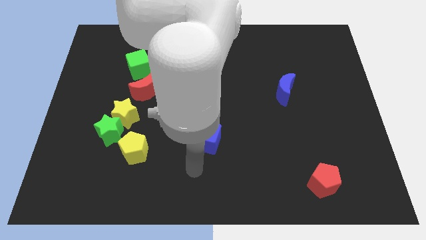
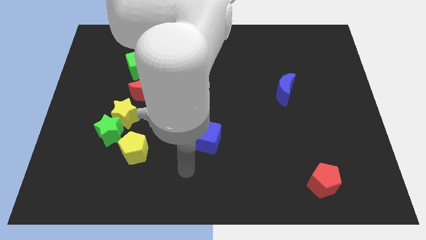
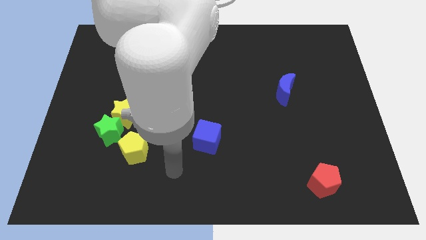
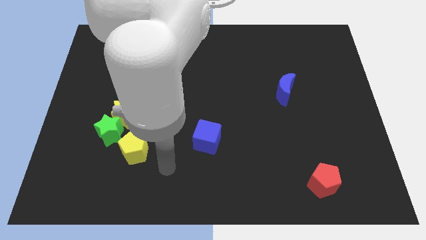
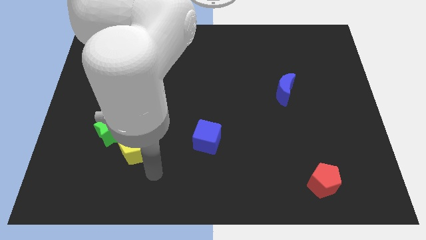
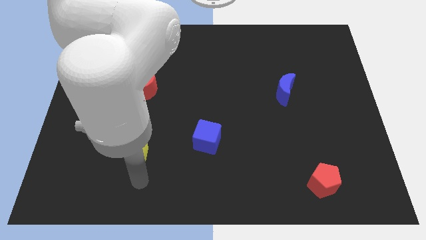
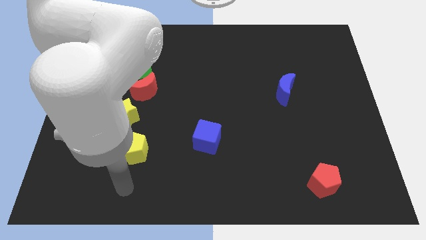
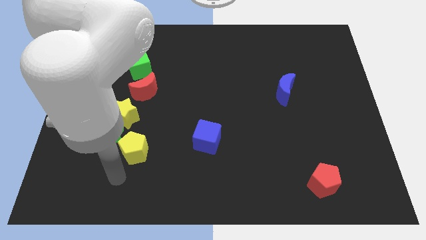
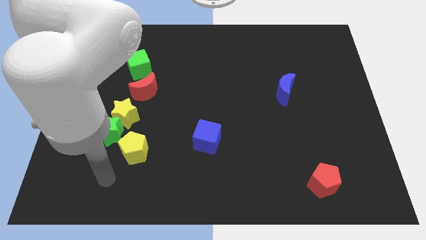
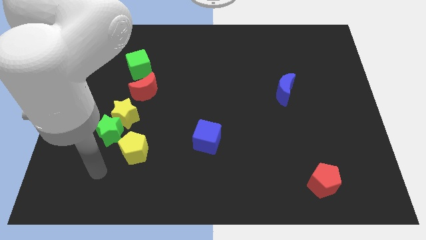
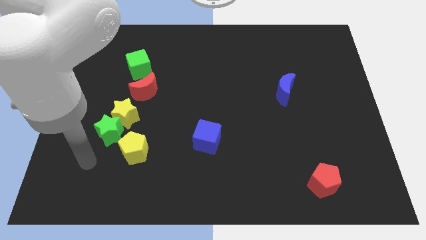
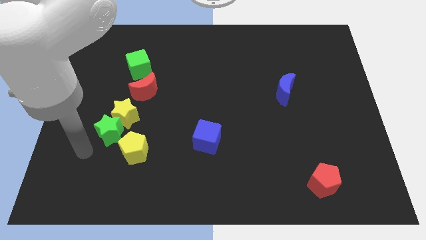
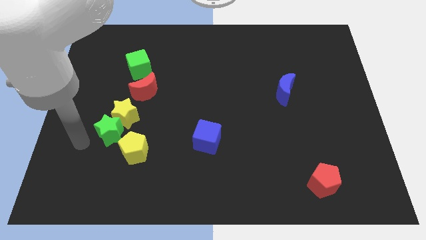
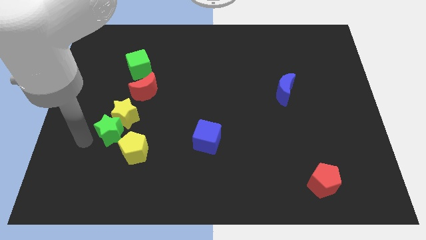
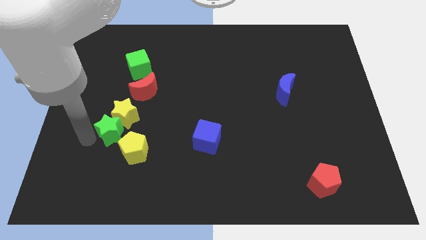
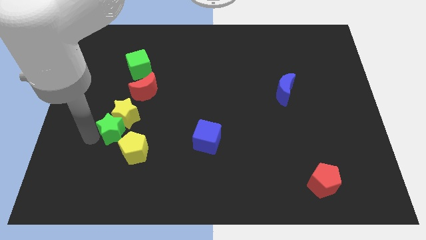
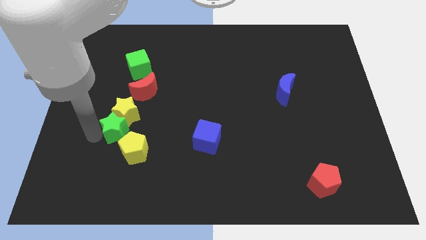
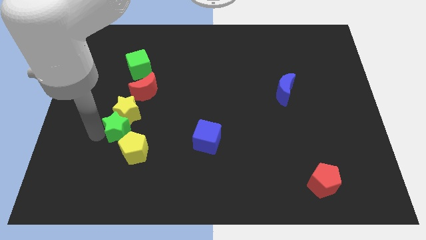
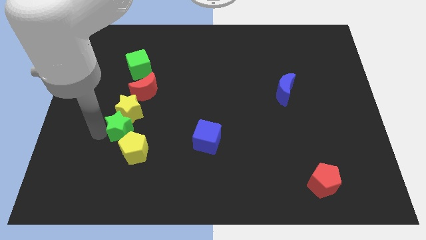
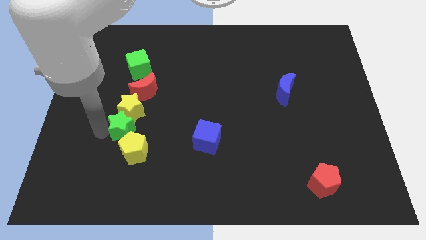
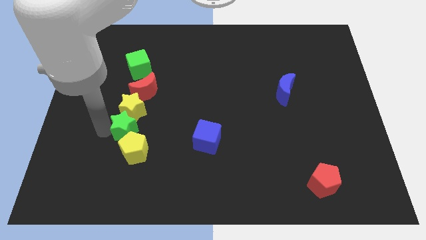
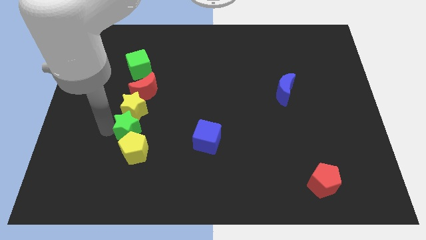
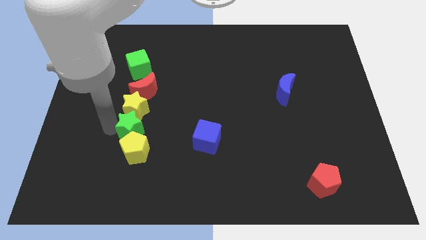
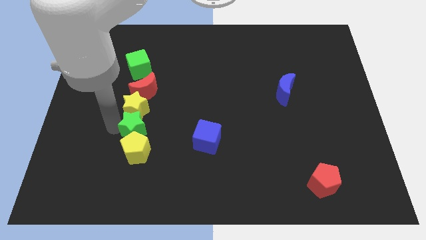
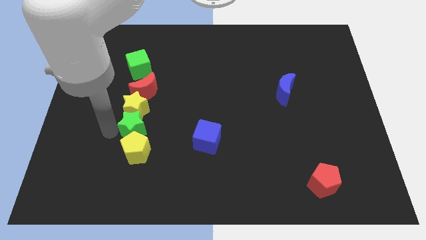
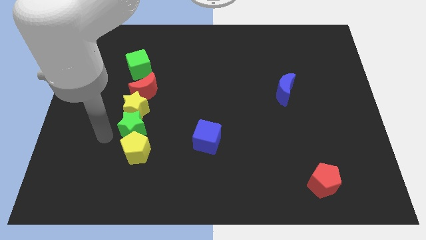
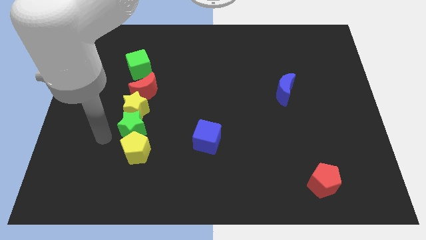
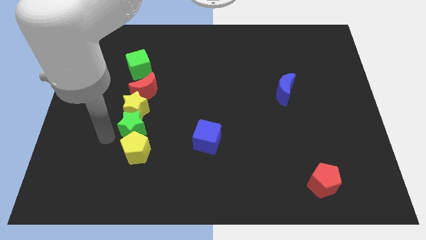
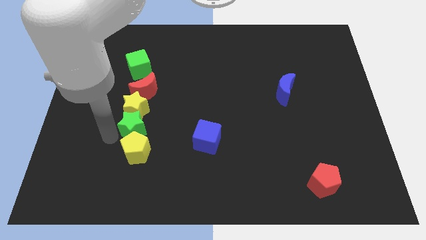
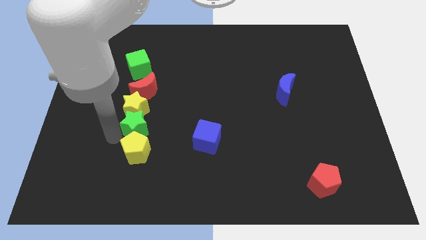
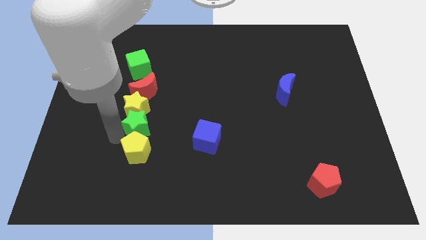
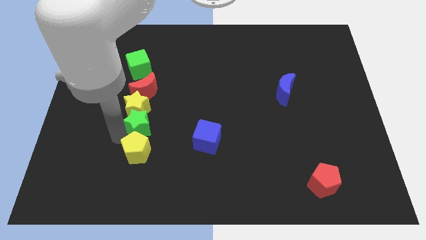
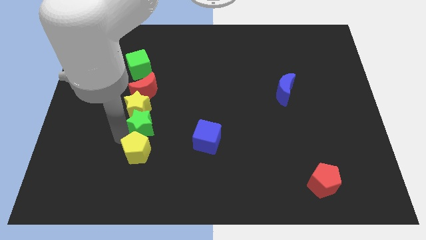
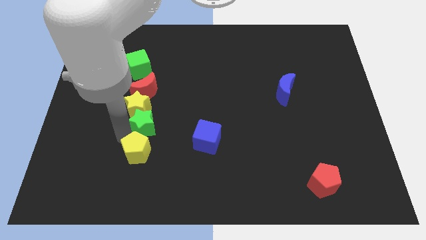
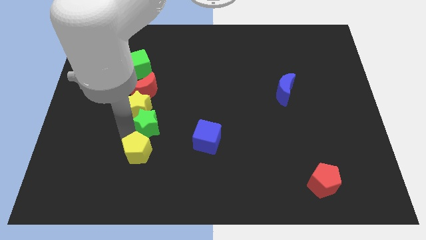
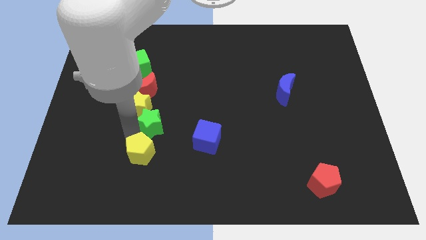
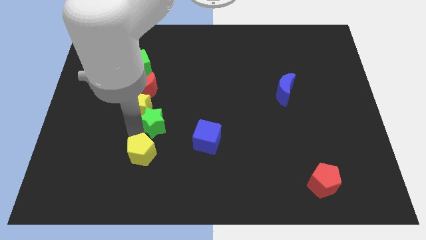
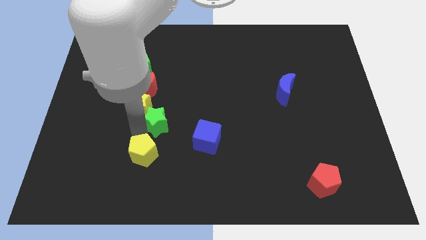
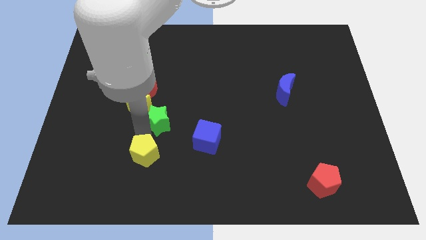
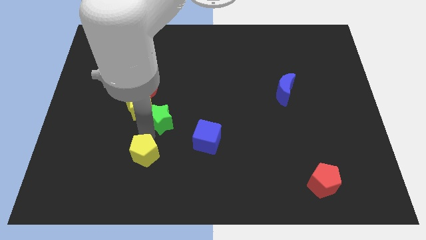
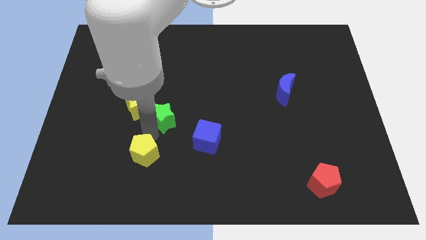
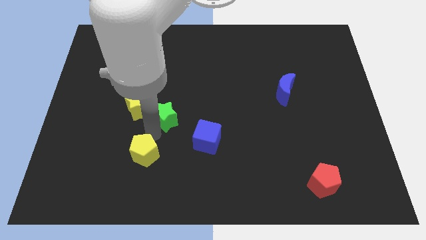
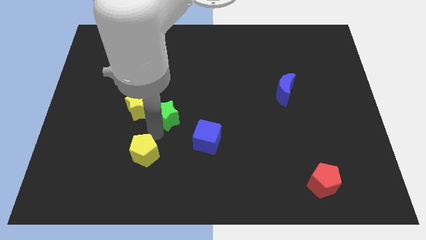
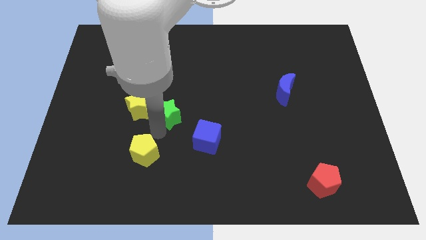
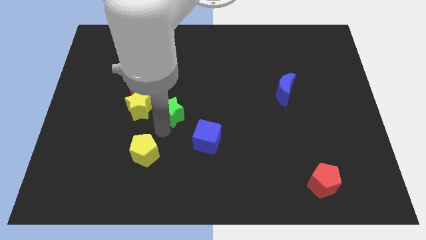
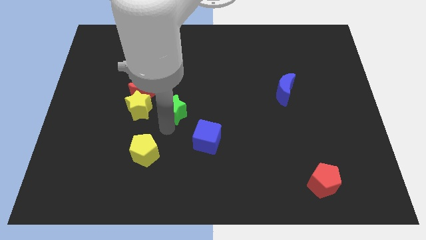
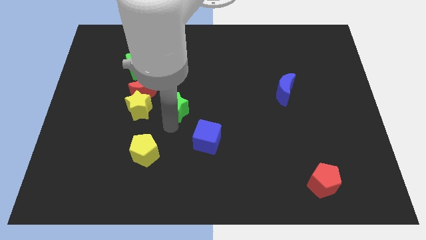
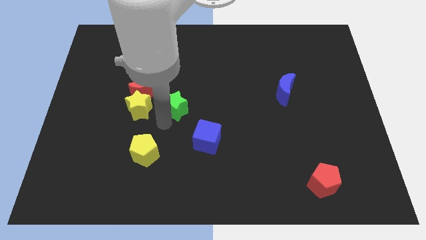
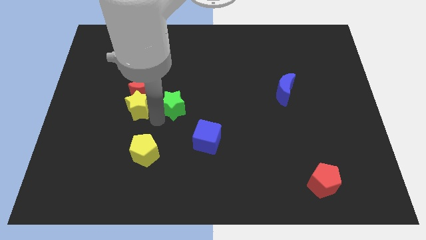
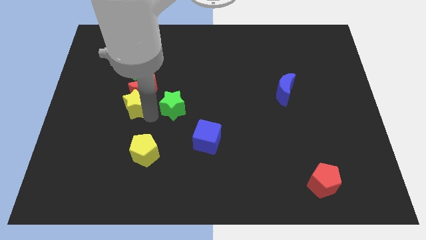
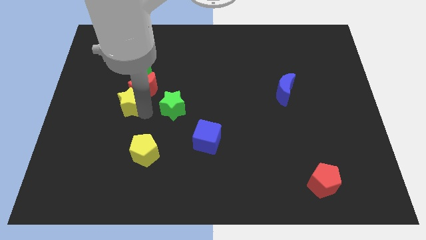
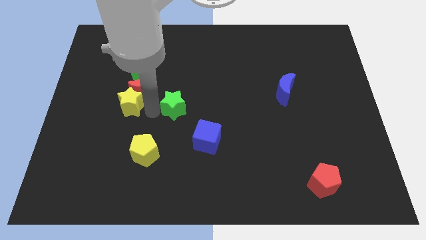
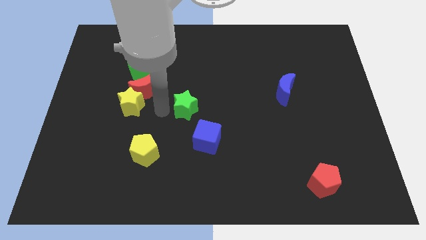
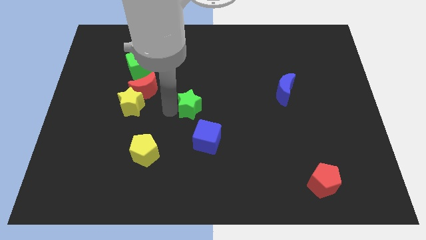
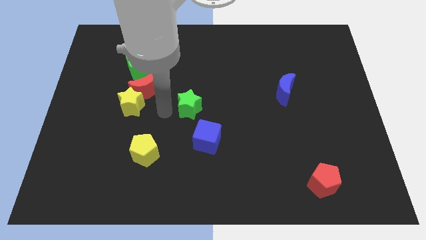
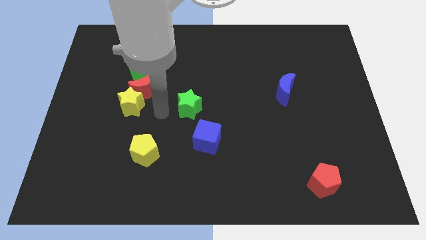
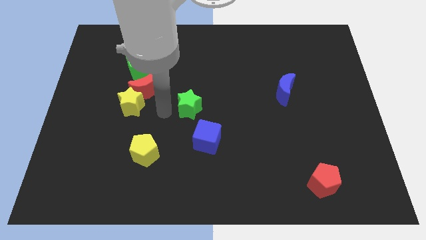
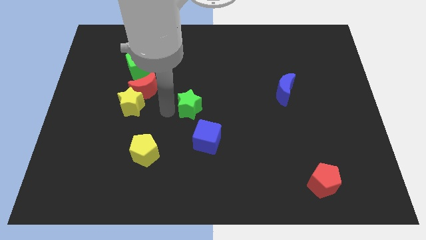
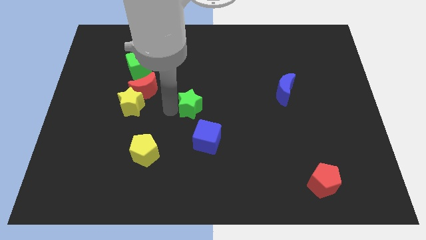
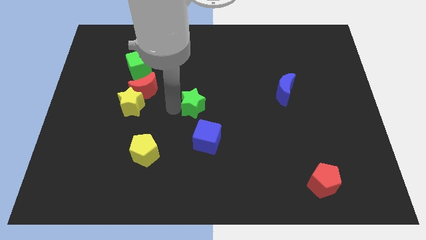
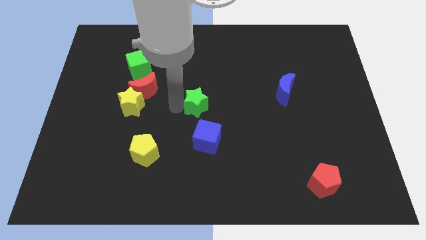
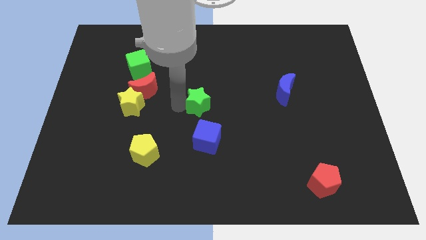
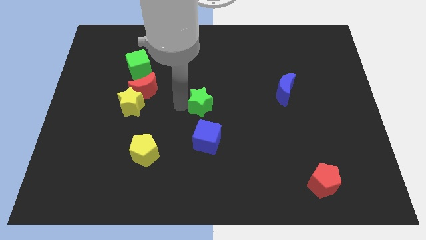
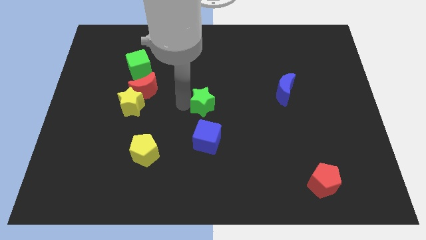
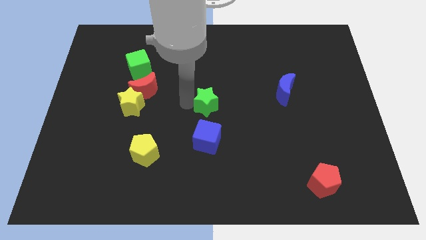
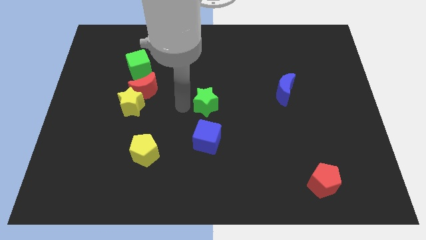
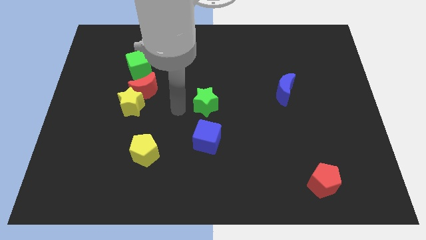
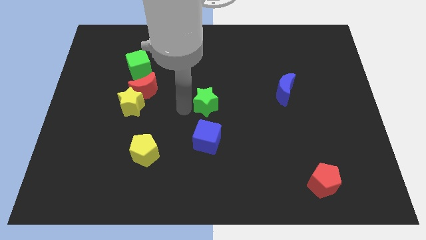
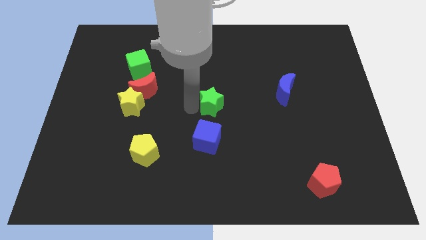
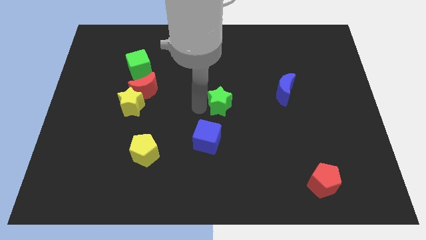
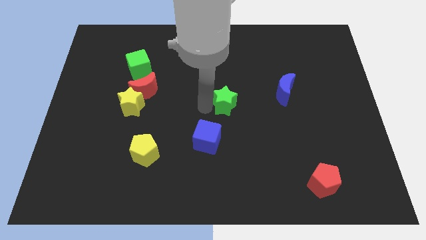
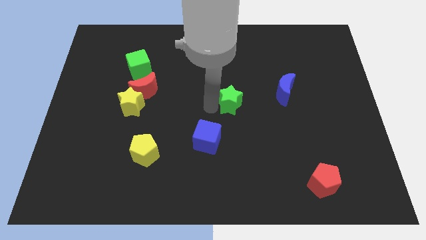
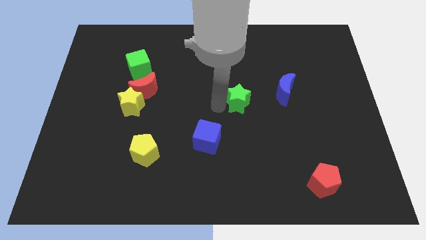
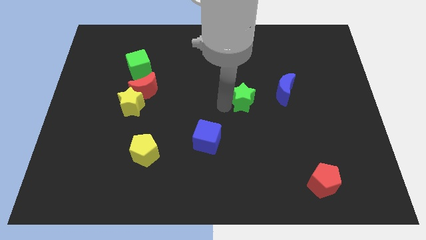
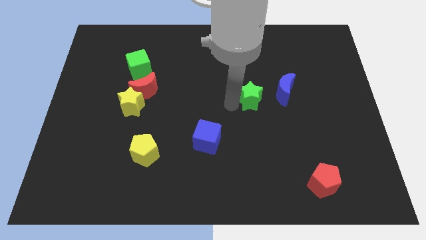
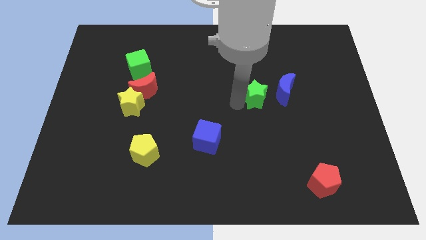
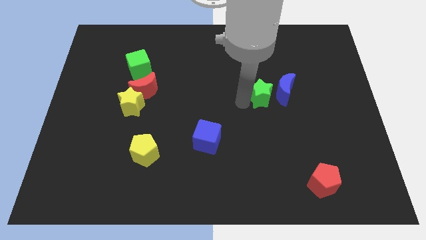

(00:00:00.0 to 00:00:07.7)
slide the green star close to the blue moon

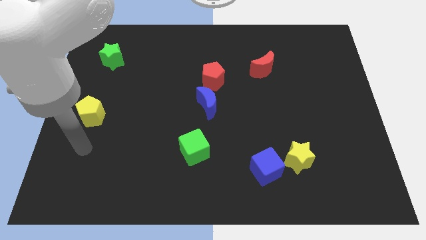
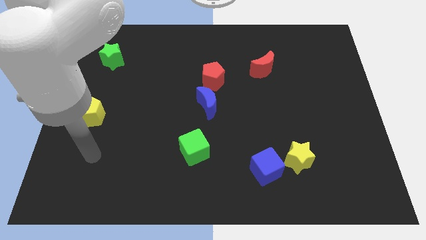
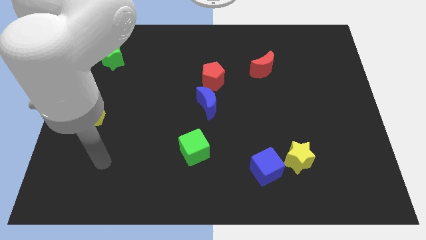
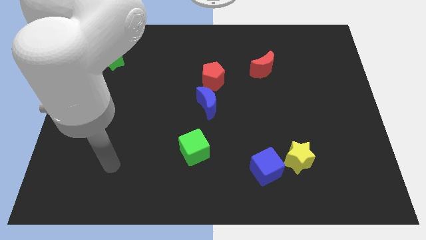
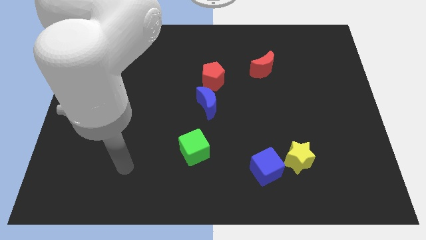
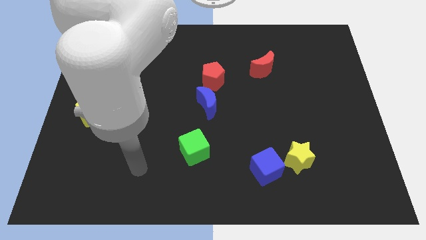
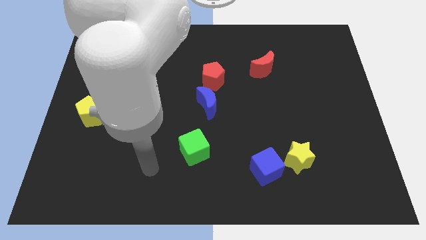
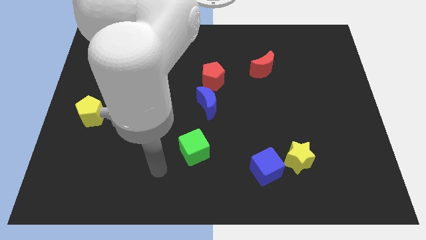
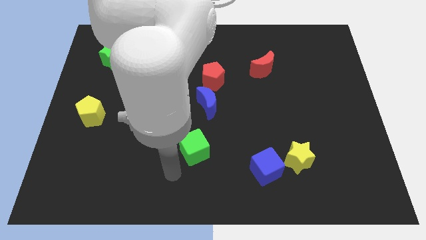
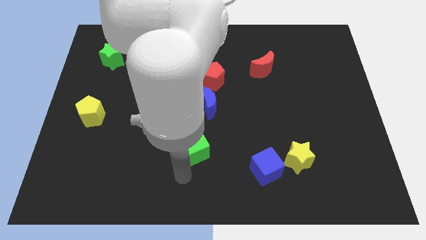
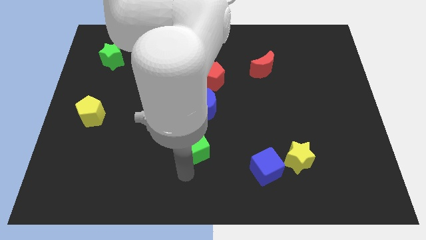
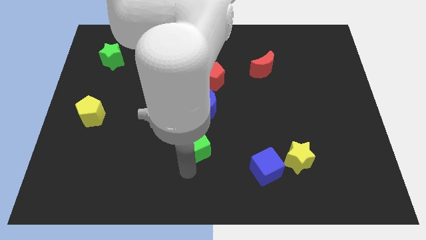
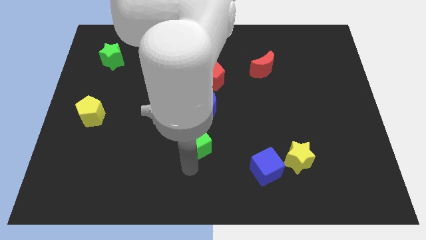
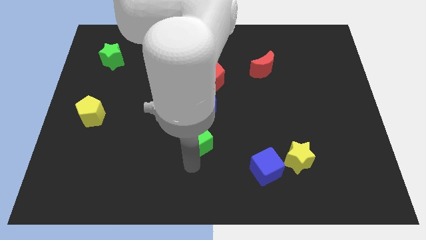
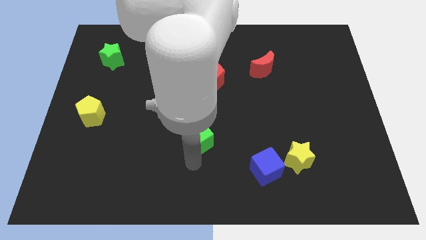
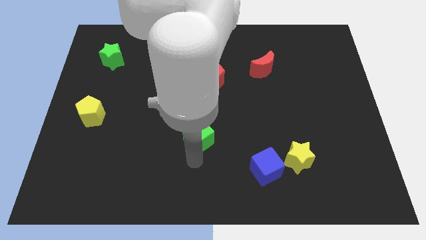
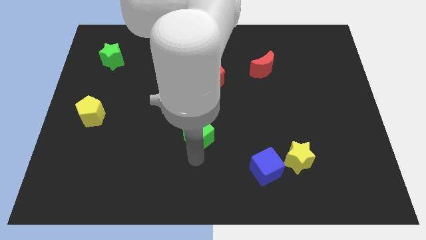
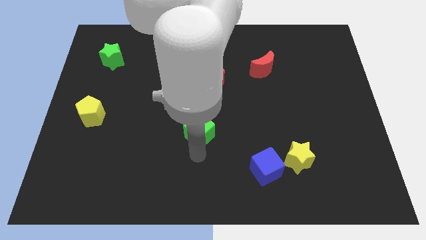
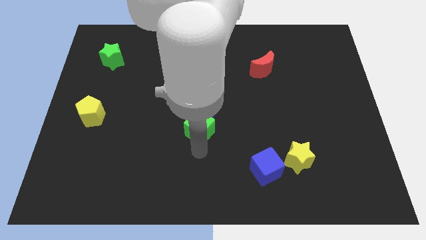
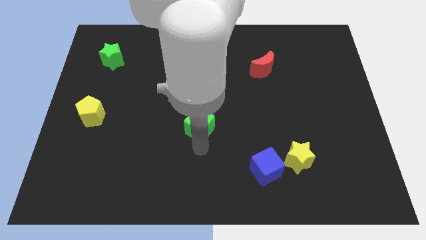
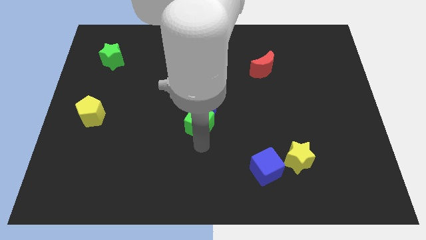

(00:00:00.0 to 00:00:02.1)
put the green cube to the blue moon
